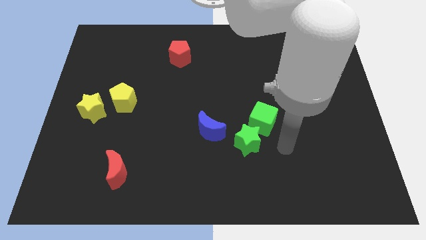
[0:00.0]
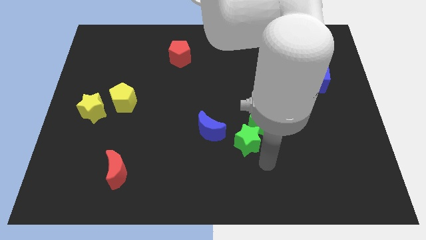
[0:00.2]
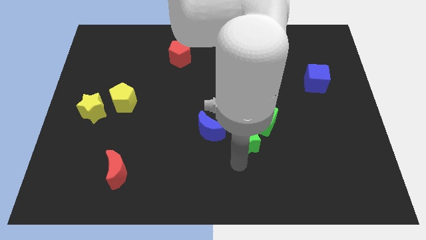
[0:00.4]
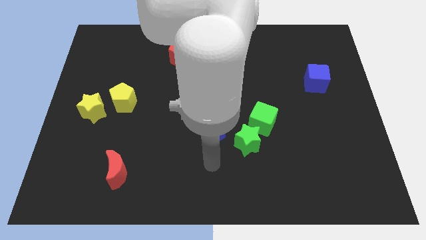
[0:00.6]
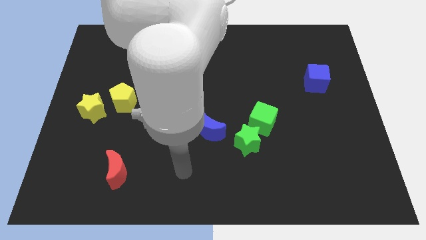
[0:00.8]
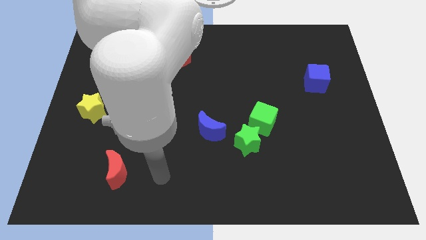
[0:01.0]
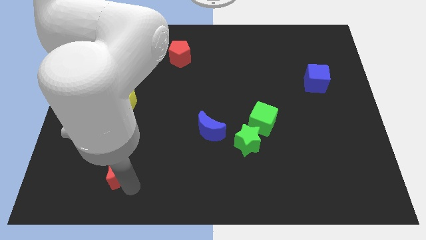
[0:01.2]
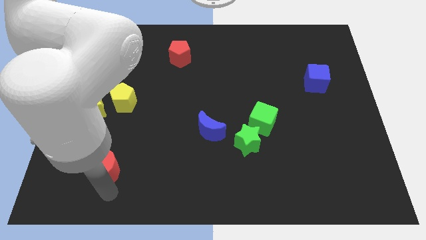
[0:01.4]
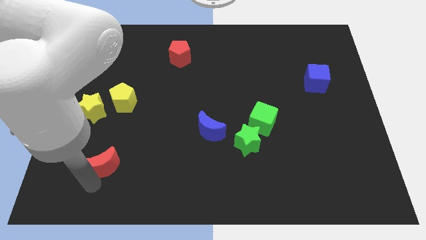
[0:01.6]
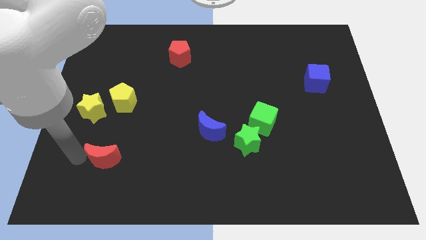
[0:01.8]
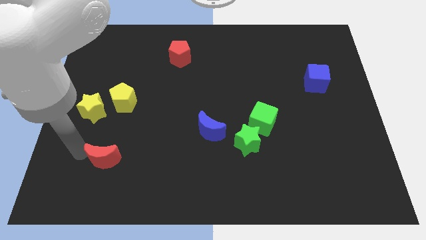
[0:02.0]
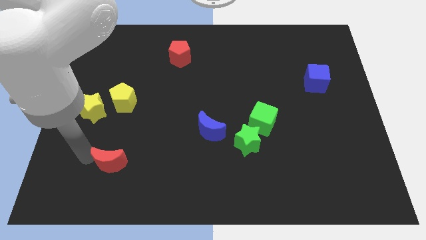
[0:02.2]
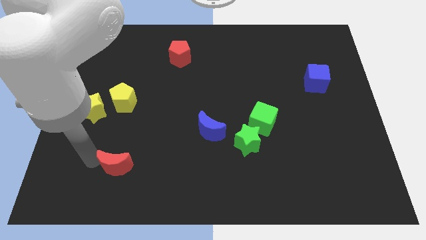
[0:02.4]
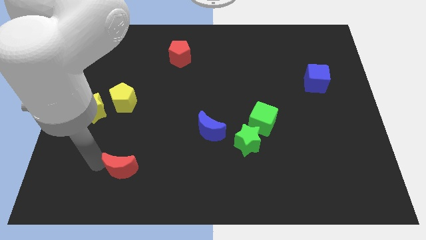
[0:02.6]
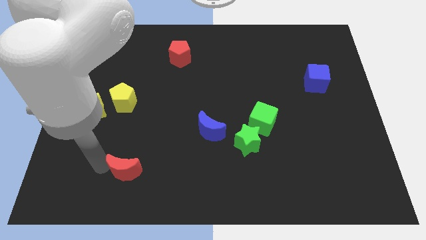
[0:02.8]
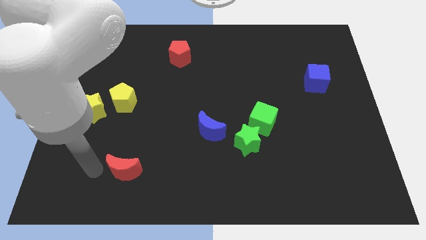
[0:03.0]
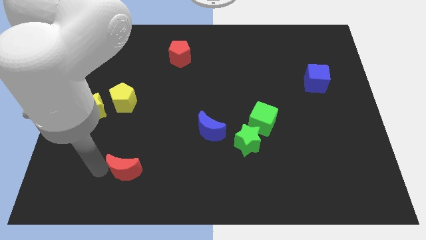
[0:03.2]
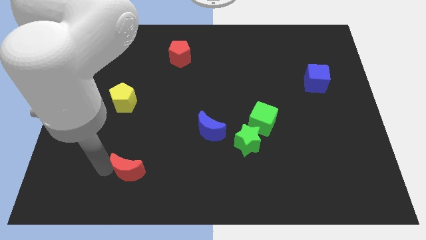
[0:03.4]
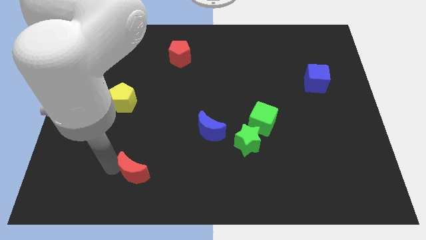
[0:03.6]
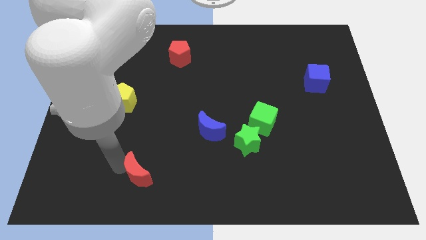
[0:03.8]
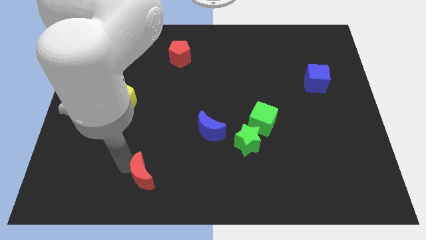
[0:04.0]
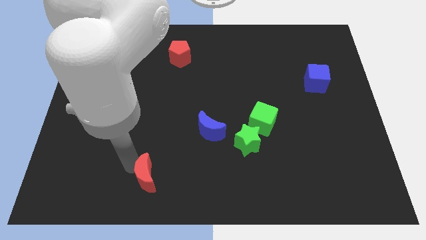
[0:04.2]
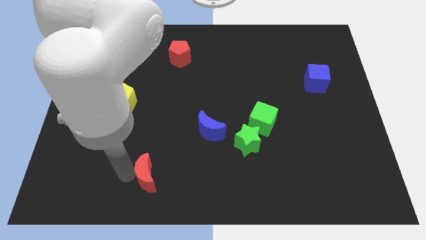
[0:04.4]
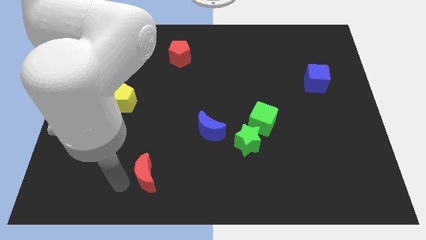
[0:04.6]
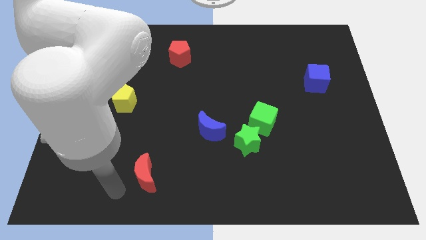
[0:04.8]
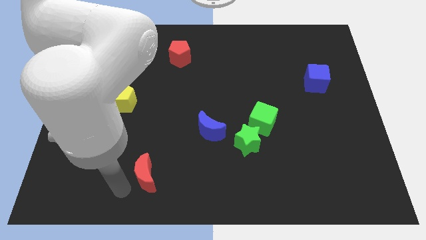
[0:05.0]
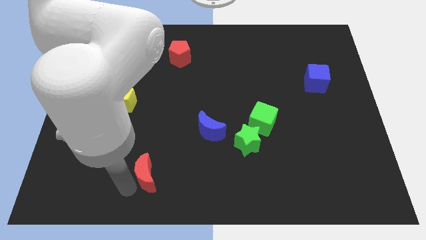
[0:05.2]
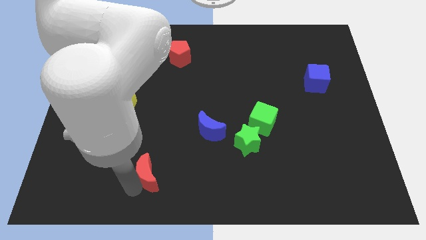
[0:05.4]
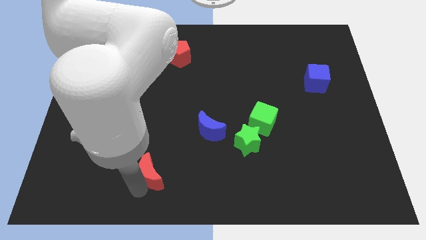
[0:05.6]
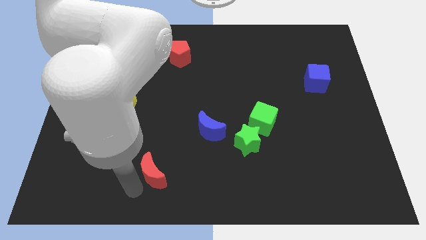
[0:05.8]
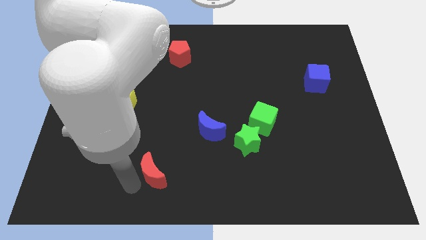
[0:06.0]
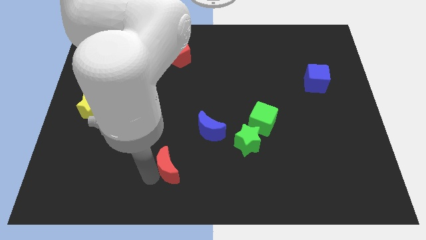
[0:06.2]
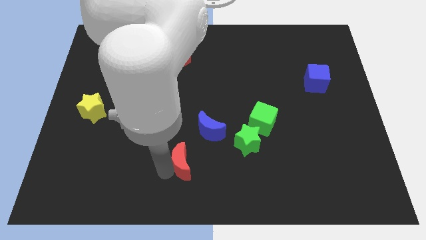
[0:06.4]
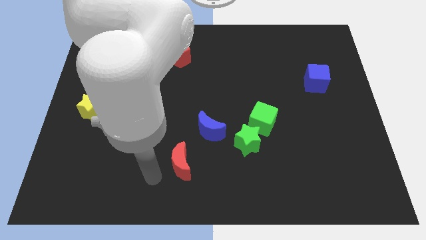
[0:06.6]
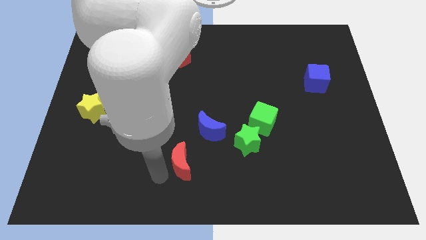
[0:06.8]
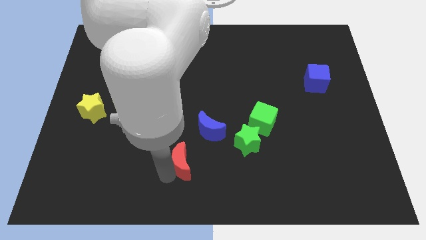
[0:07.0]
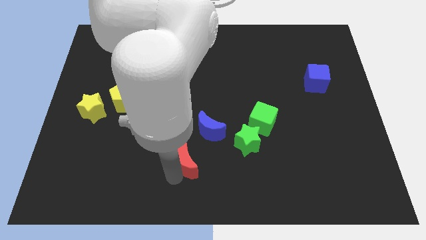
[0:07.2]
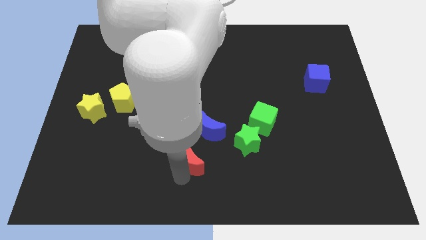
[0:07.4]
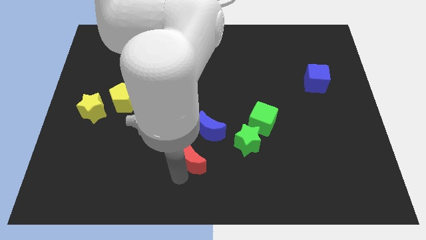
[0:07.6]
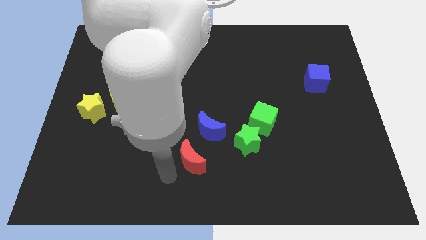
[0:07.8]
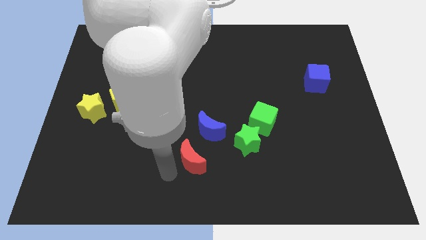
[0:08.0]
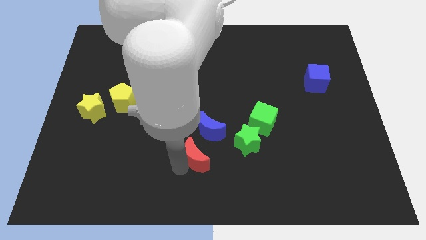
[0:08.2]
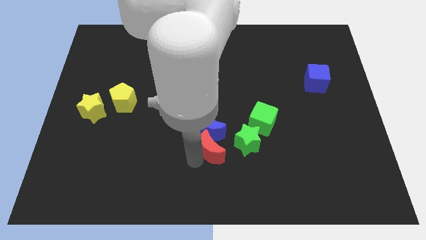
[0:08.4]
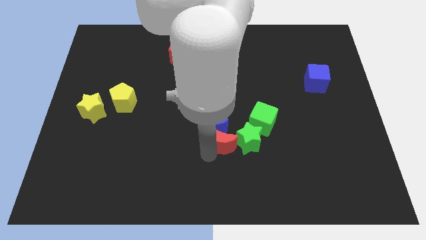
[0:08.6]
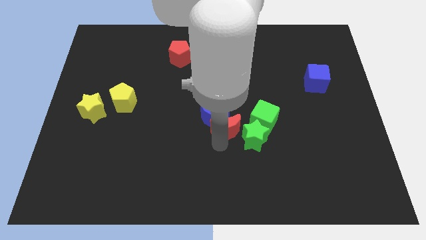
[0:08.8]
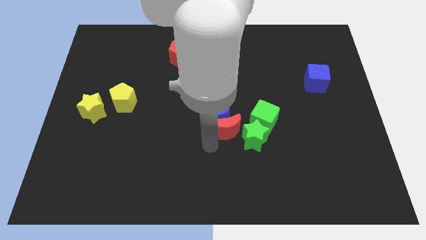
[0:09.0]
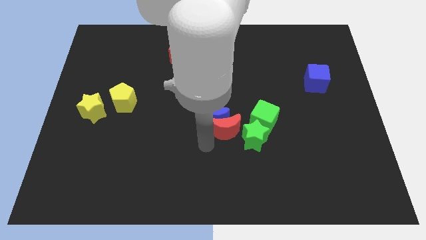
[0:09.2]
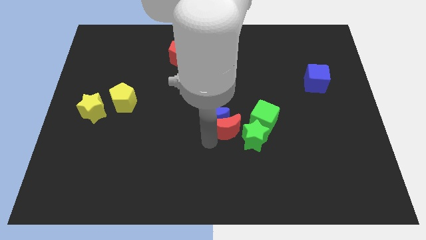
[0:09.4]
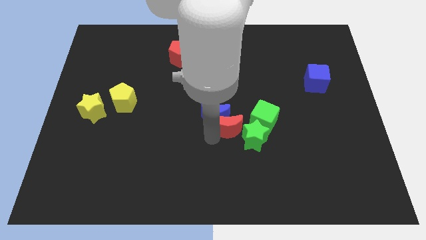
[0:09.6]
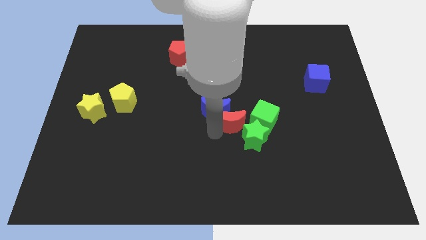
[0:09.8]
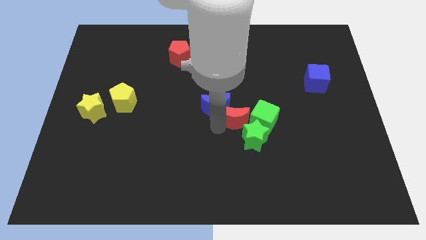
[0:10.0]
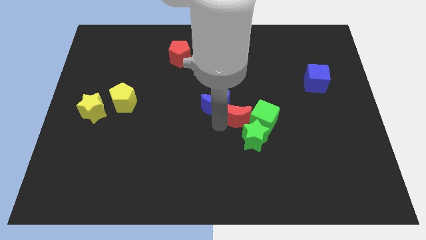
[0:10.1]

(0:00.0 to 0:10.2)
put the red moon towards the green cube

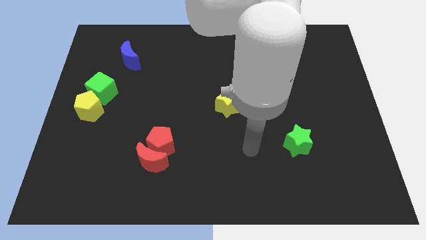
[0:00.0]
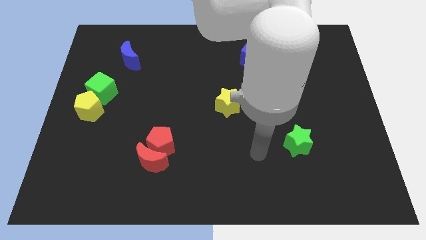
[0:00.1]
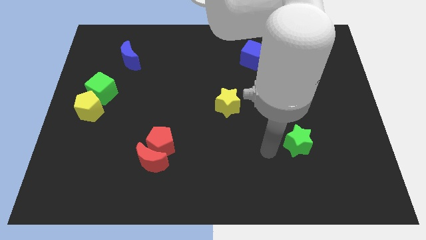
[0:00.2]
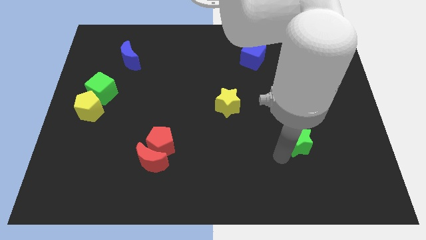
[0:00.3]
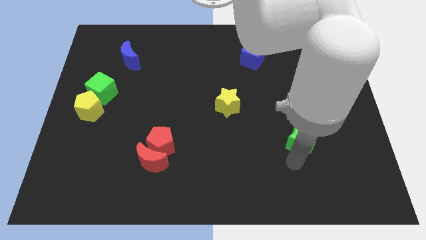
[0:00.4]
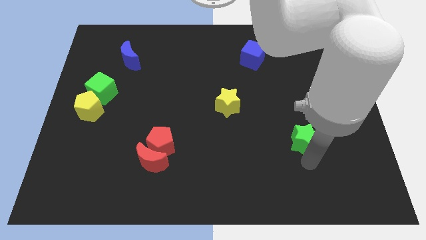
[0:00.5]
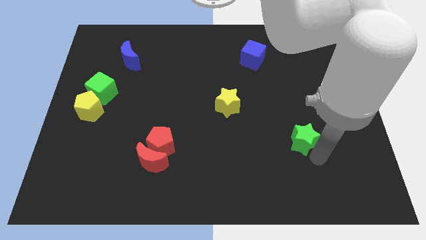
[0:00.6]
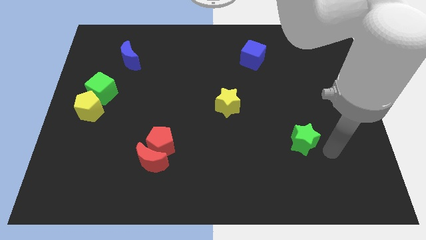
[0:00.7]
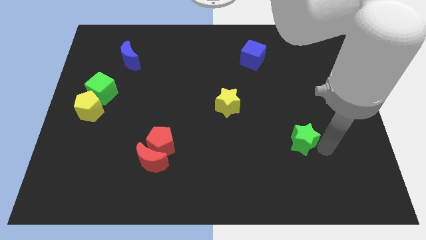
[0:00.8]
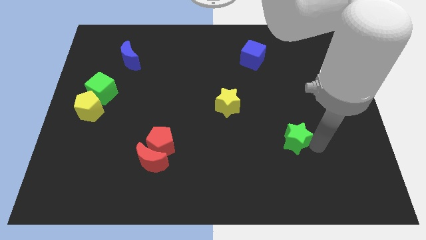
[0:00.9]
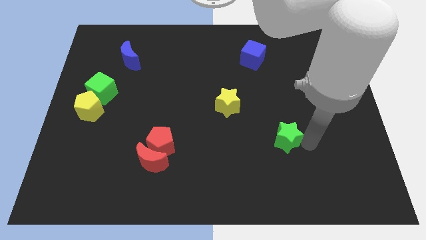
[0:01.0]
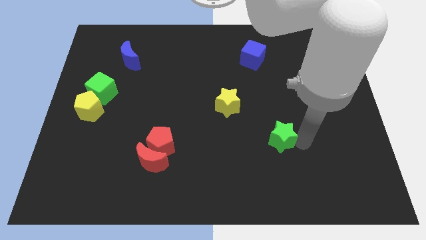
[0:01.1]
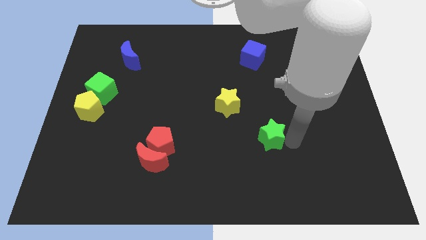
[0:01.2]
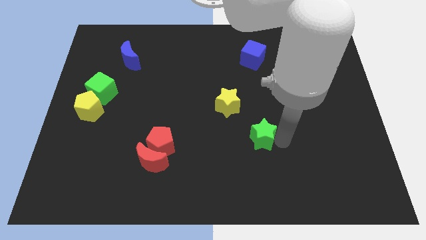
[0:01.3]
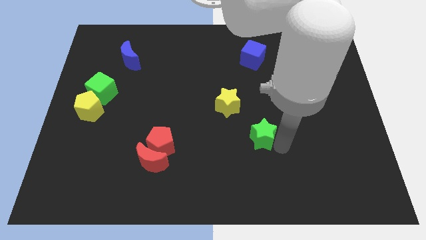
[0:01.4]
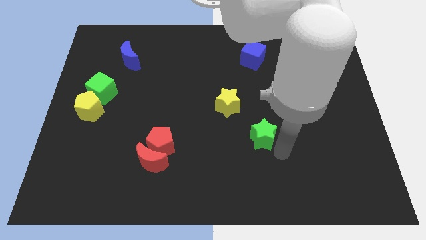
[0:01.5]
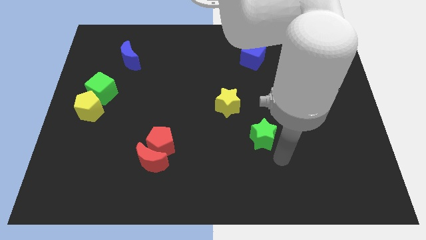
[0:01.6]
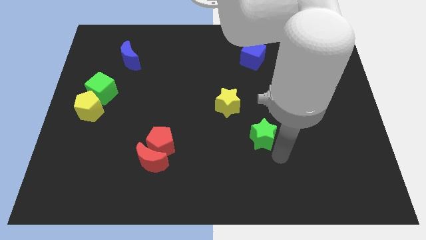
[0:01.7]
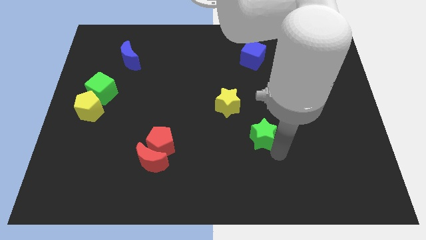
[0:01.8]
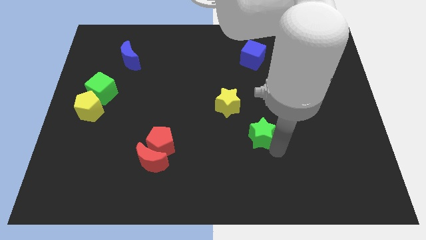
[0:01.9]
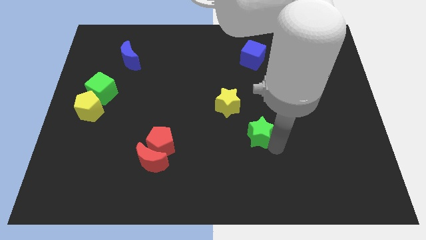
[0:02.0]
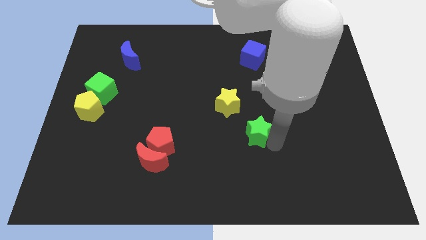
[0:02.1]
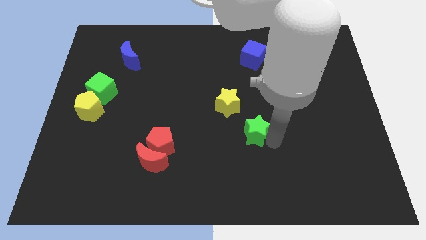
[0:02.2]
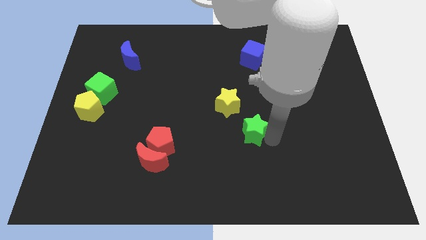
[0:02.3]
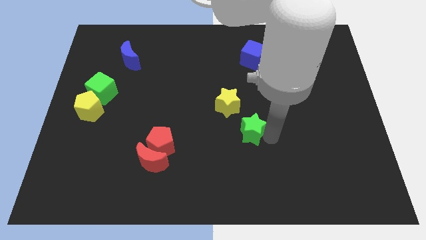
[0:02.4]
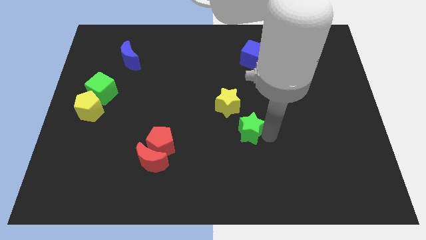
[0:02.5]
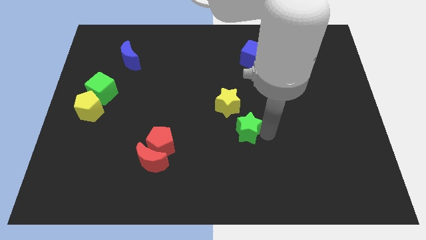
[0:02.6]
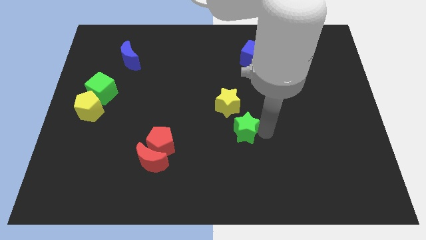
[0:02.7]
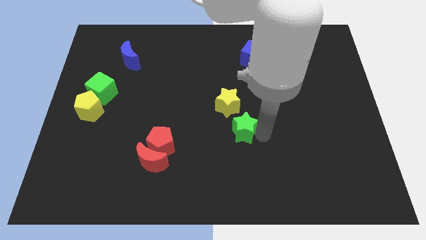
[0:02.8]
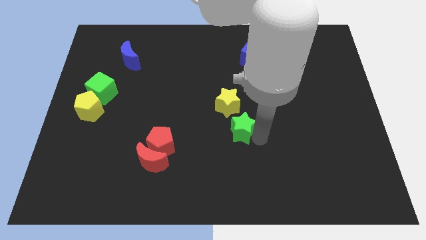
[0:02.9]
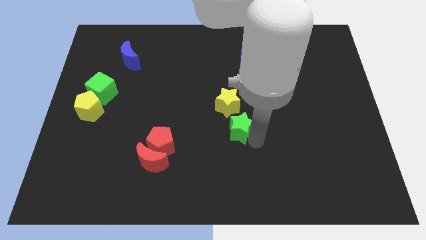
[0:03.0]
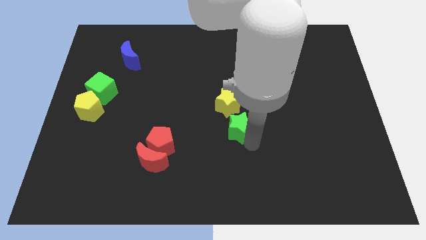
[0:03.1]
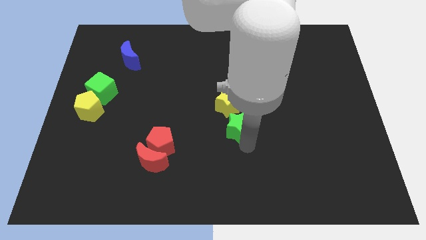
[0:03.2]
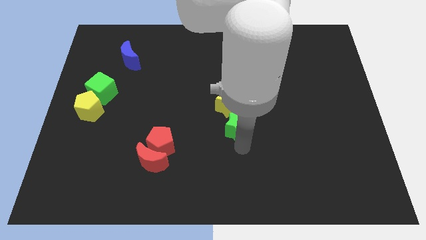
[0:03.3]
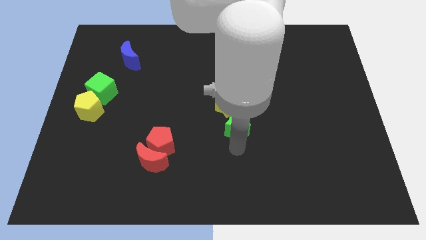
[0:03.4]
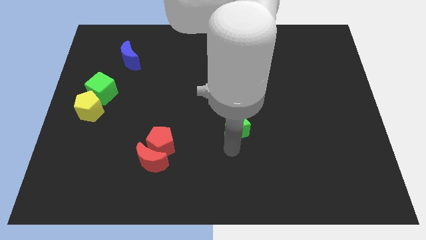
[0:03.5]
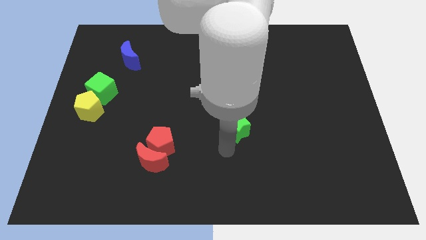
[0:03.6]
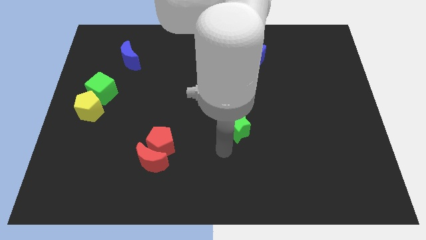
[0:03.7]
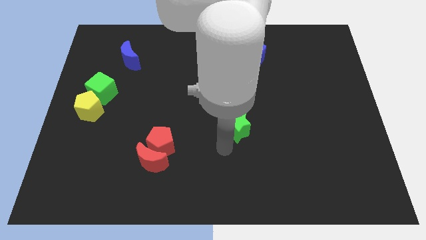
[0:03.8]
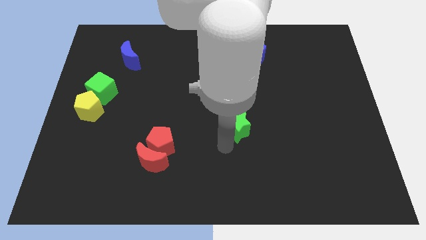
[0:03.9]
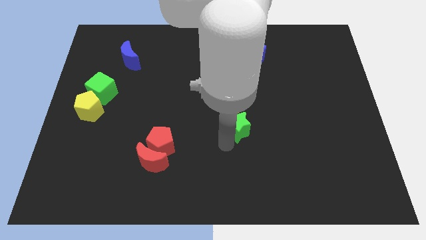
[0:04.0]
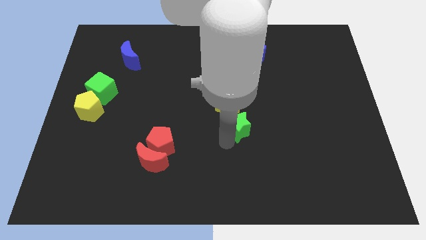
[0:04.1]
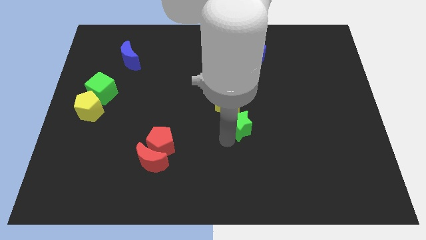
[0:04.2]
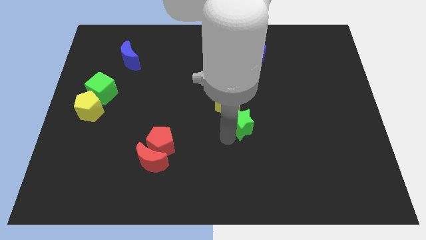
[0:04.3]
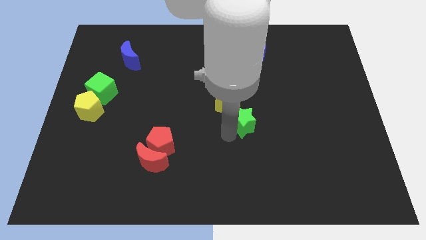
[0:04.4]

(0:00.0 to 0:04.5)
move the green star to the yellow star
